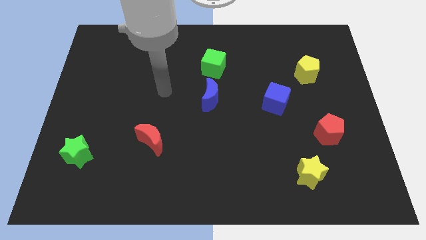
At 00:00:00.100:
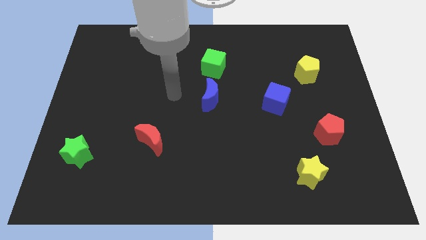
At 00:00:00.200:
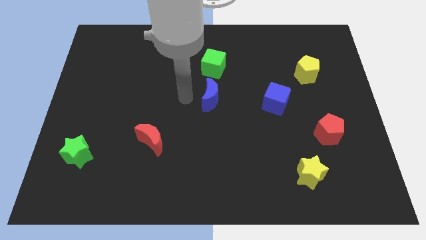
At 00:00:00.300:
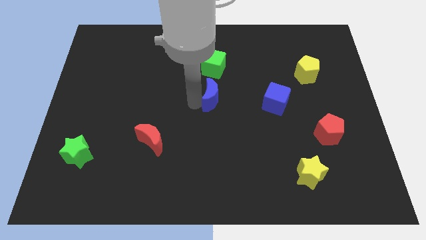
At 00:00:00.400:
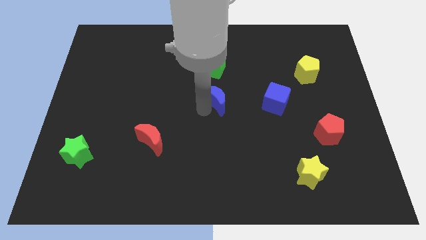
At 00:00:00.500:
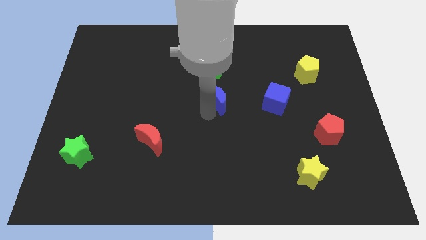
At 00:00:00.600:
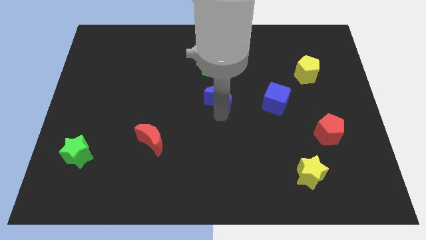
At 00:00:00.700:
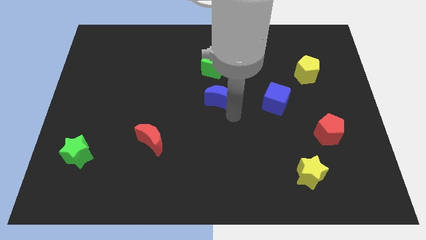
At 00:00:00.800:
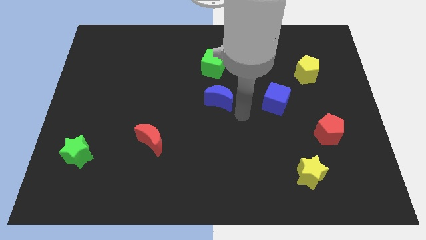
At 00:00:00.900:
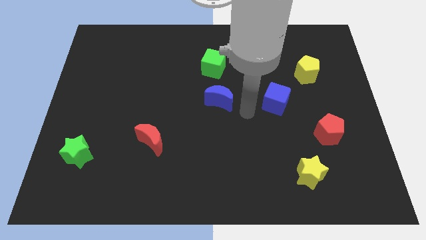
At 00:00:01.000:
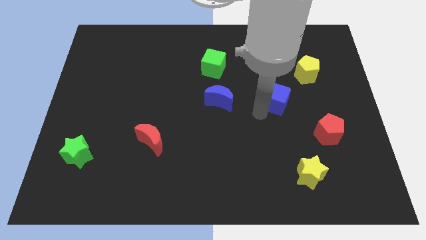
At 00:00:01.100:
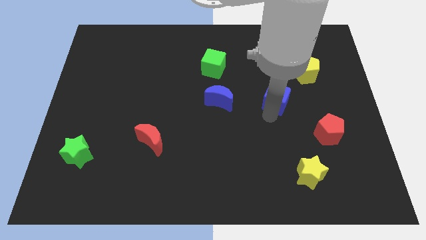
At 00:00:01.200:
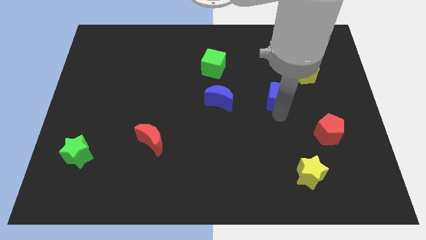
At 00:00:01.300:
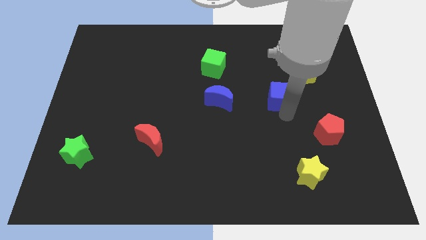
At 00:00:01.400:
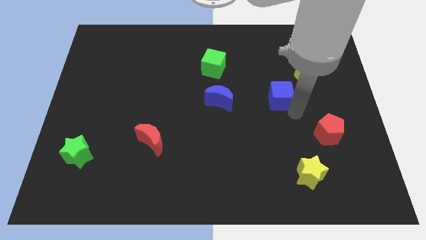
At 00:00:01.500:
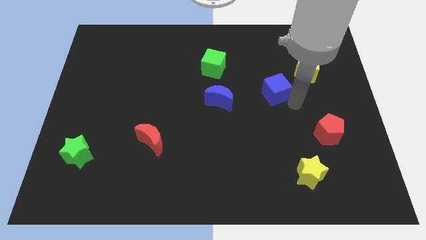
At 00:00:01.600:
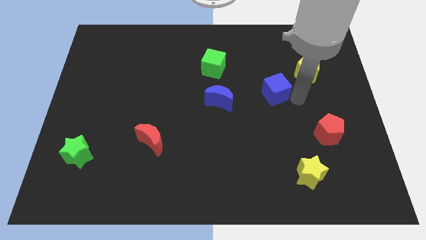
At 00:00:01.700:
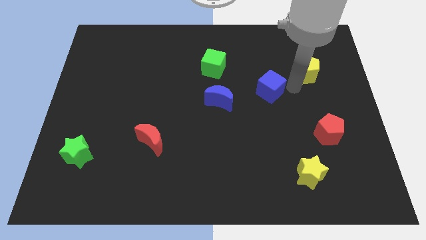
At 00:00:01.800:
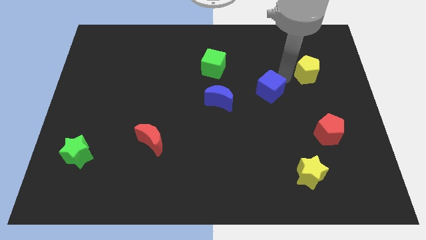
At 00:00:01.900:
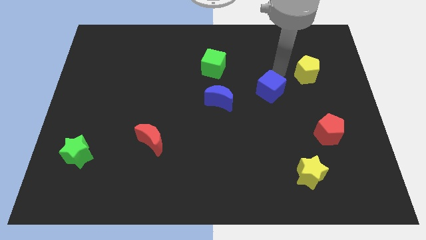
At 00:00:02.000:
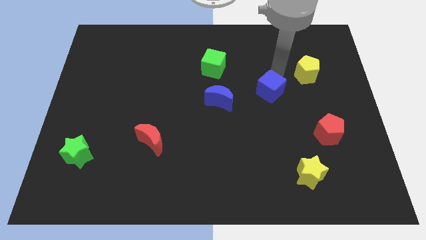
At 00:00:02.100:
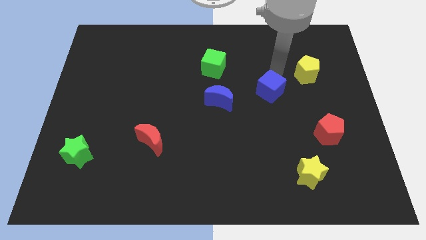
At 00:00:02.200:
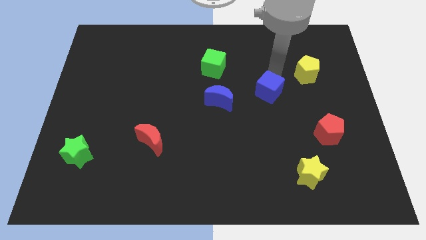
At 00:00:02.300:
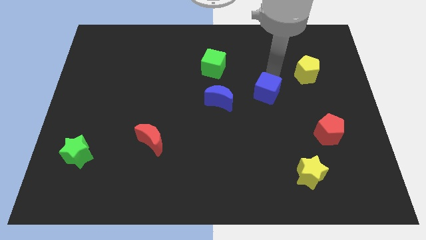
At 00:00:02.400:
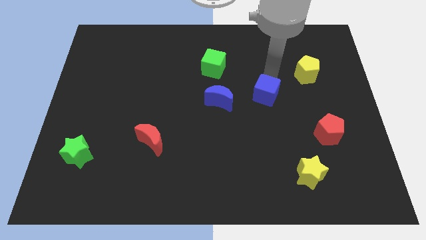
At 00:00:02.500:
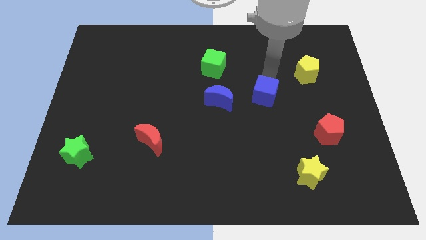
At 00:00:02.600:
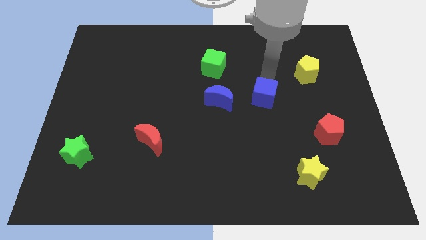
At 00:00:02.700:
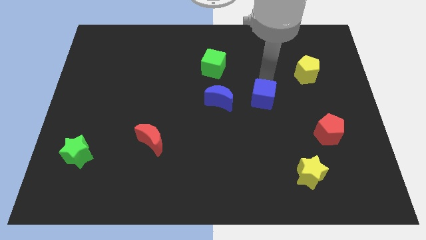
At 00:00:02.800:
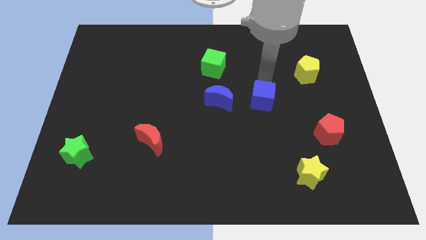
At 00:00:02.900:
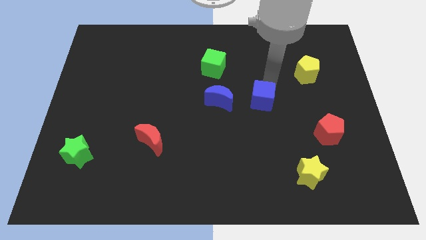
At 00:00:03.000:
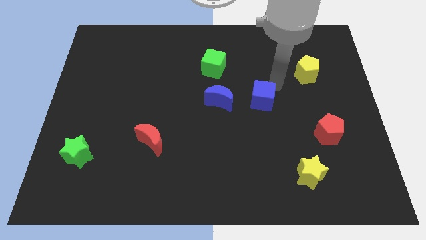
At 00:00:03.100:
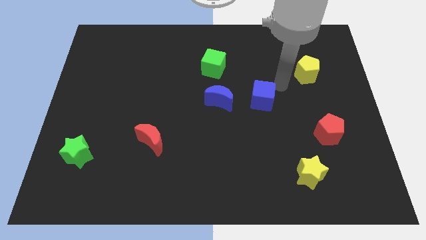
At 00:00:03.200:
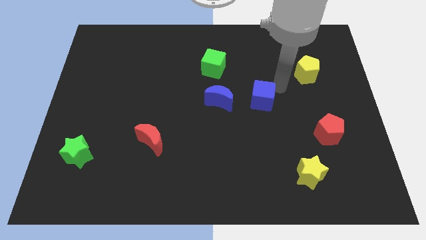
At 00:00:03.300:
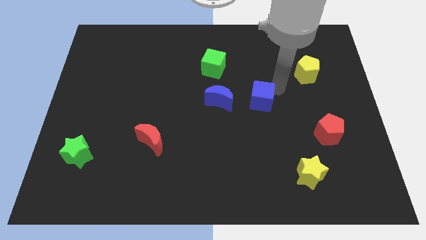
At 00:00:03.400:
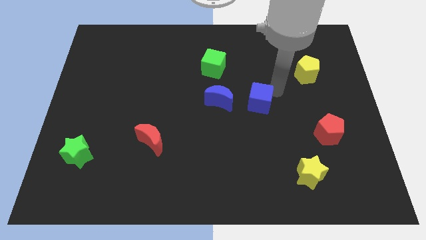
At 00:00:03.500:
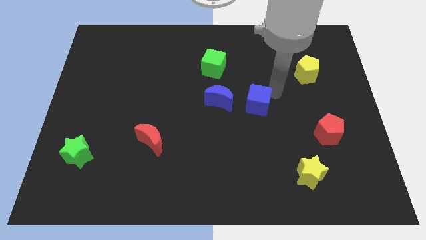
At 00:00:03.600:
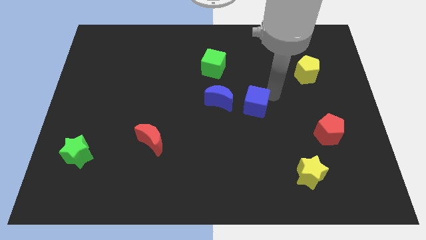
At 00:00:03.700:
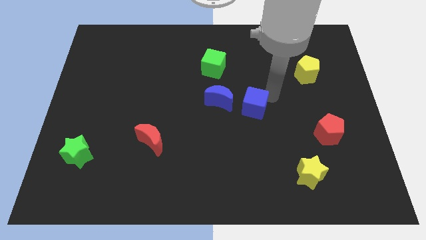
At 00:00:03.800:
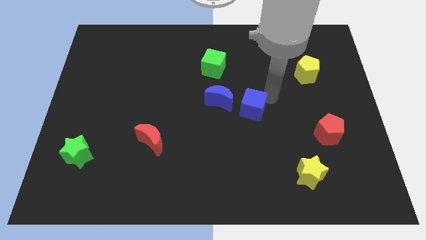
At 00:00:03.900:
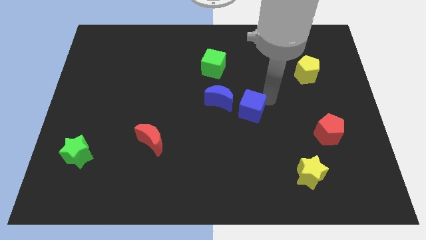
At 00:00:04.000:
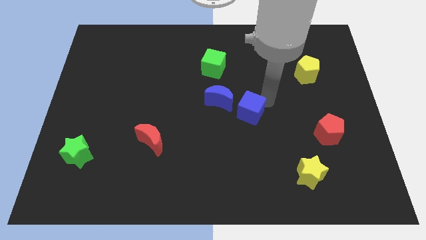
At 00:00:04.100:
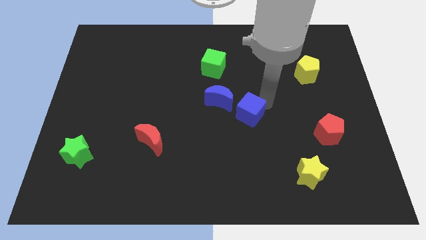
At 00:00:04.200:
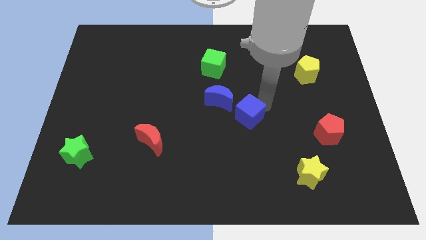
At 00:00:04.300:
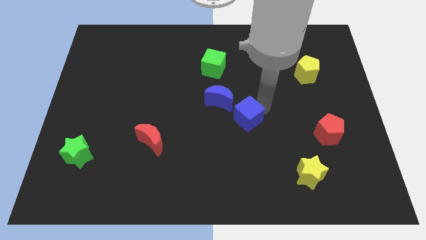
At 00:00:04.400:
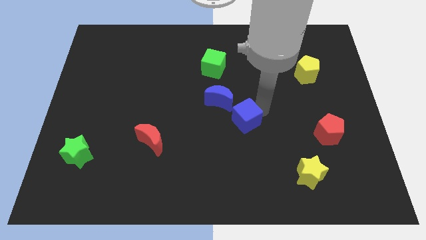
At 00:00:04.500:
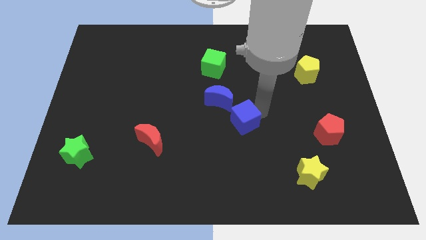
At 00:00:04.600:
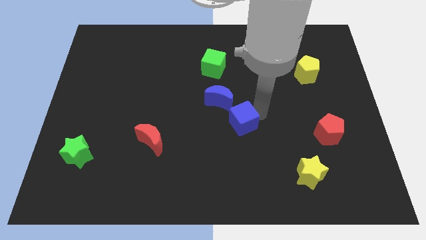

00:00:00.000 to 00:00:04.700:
slightly move the blue cube to the left

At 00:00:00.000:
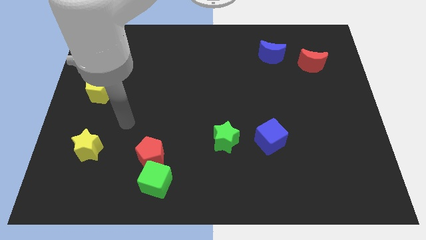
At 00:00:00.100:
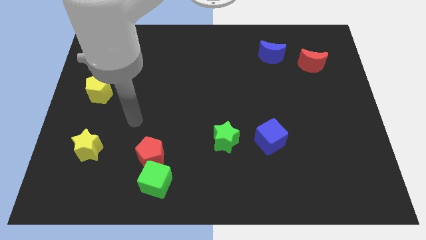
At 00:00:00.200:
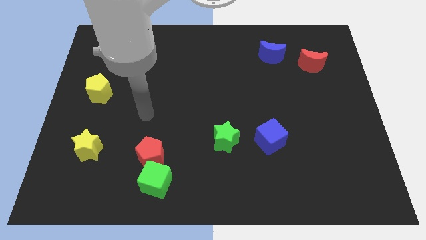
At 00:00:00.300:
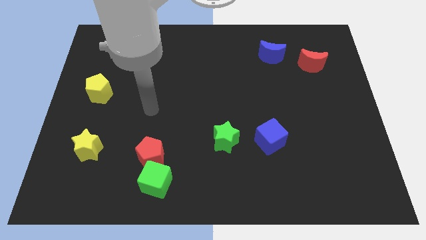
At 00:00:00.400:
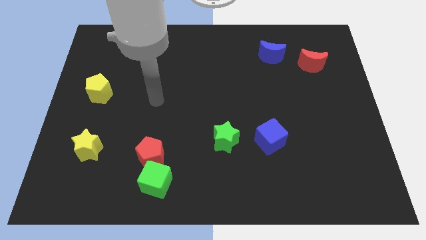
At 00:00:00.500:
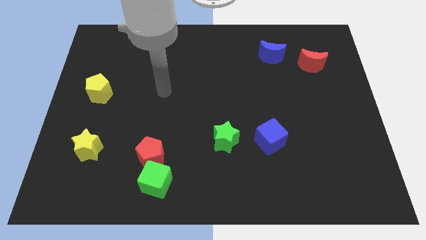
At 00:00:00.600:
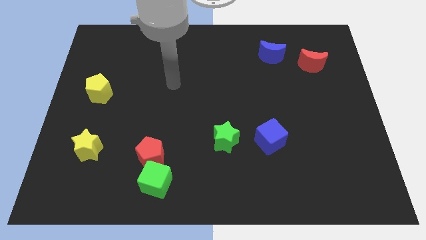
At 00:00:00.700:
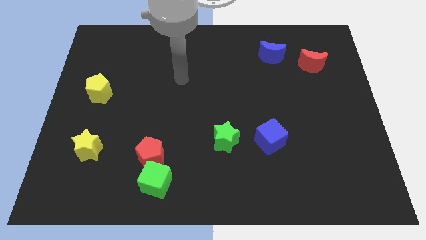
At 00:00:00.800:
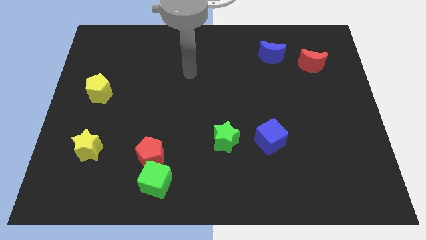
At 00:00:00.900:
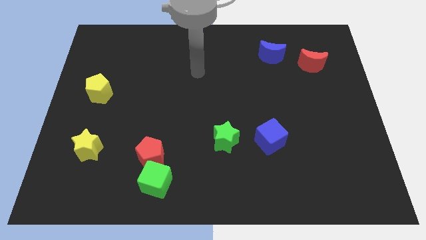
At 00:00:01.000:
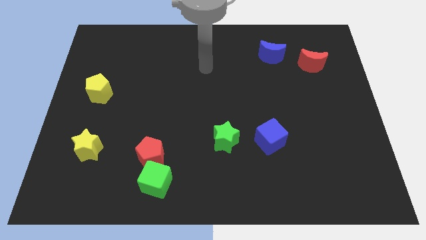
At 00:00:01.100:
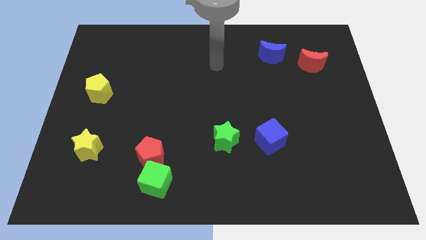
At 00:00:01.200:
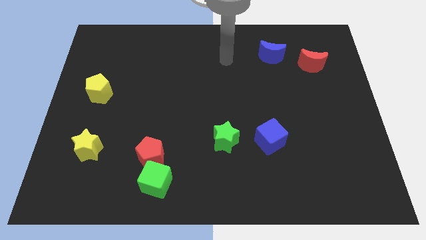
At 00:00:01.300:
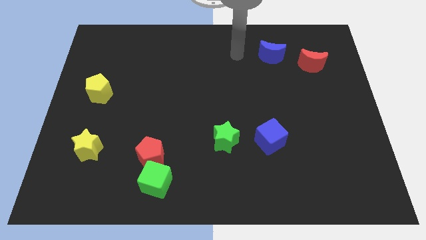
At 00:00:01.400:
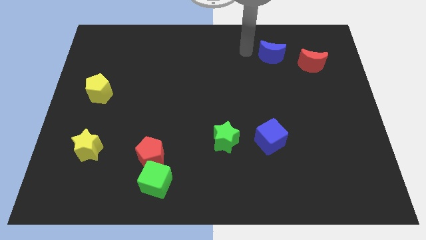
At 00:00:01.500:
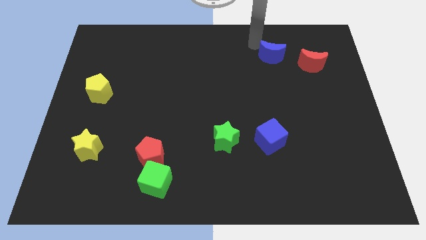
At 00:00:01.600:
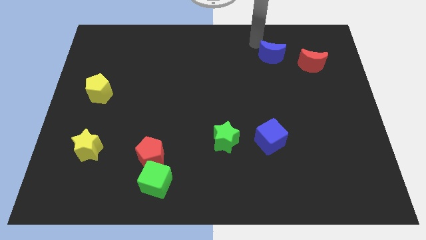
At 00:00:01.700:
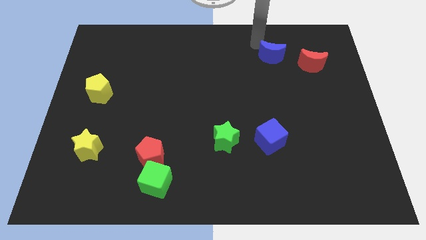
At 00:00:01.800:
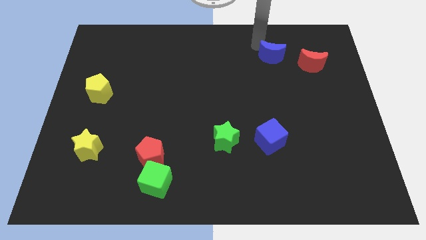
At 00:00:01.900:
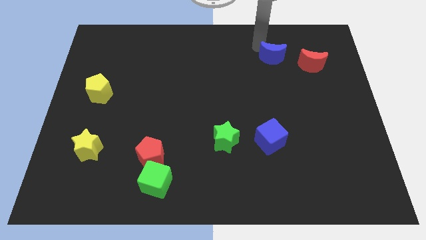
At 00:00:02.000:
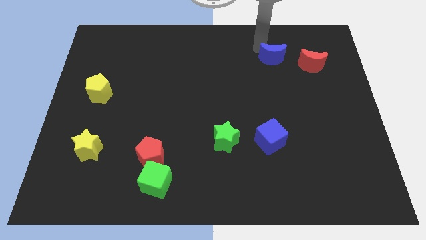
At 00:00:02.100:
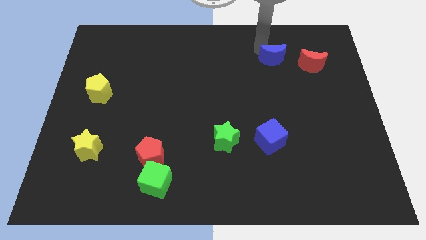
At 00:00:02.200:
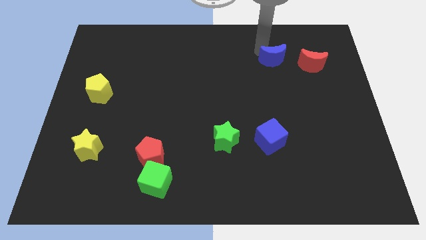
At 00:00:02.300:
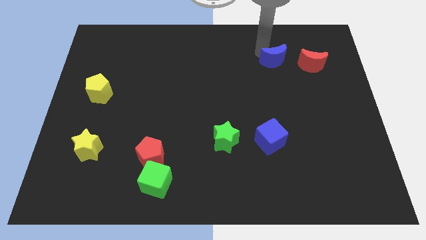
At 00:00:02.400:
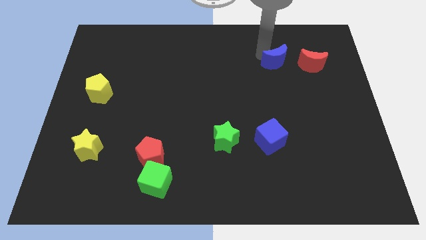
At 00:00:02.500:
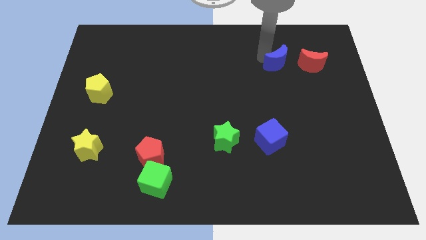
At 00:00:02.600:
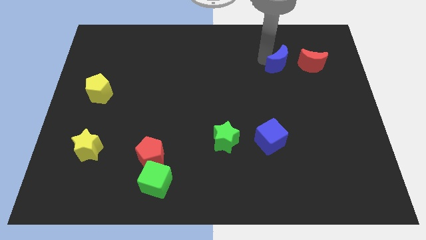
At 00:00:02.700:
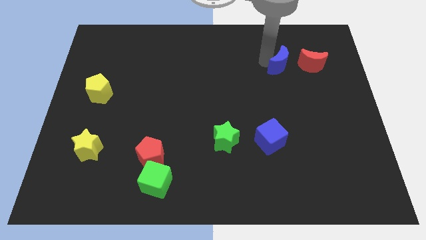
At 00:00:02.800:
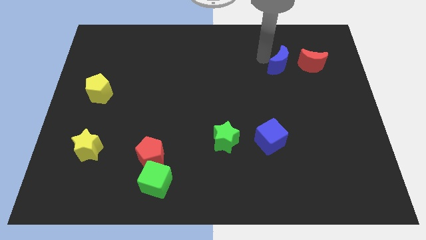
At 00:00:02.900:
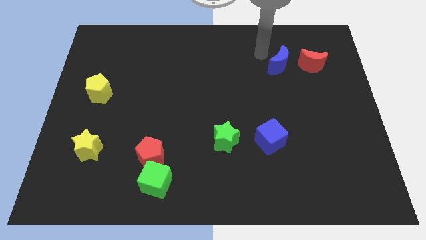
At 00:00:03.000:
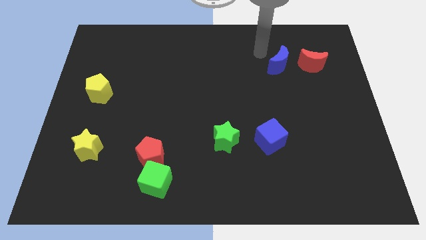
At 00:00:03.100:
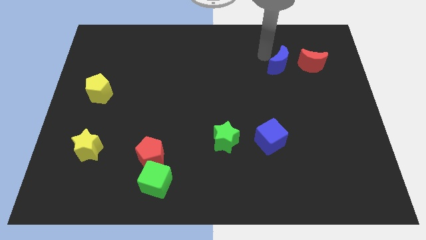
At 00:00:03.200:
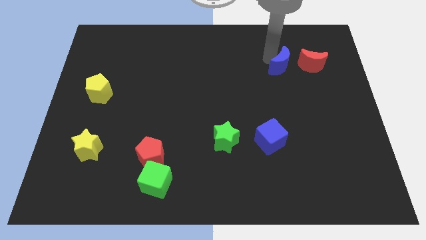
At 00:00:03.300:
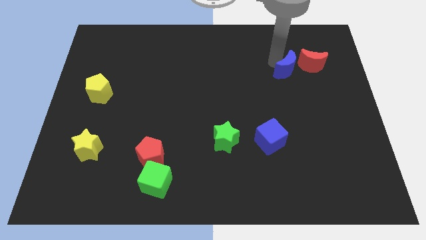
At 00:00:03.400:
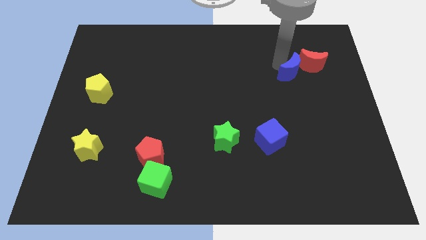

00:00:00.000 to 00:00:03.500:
slightly move the blue moon diagonally downwards and to the right
